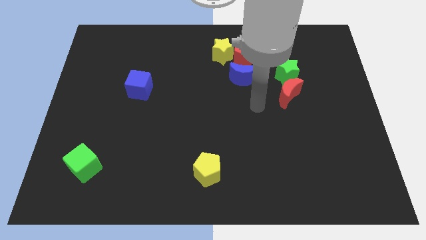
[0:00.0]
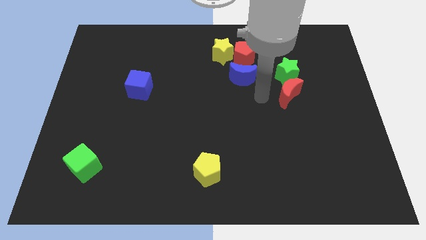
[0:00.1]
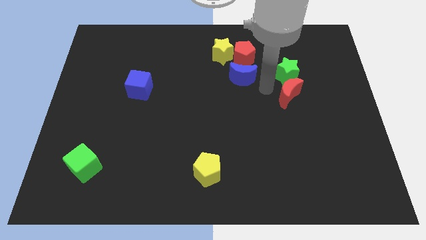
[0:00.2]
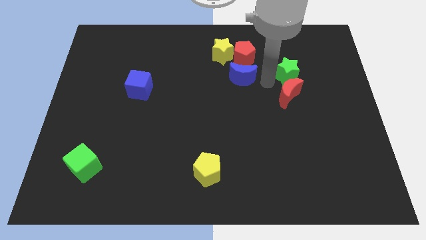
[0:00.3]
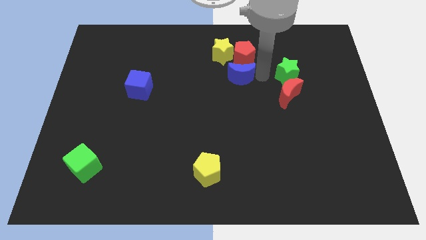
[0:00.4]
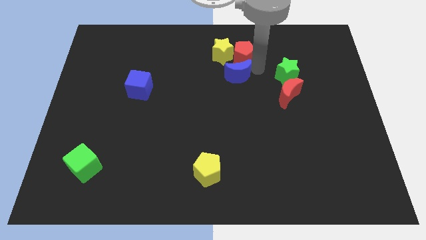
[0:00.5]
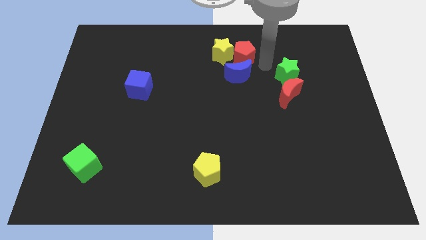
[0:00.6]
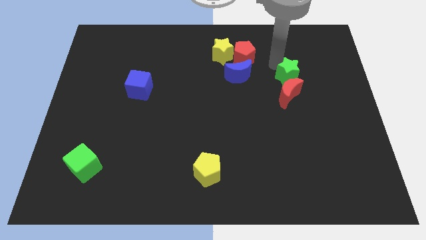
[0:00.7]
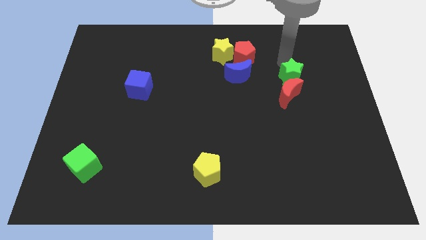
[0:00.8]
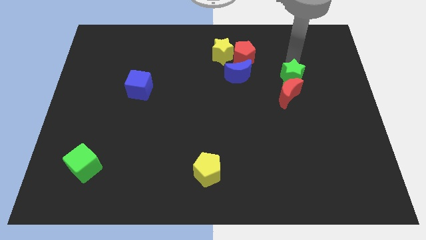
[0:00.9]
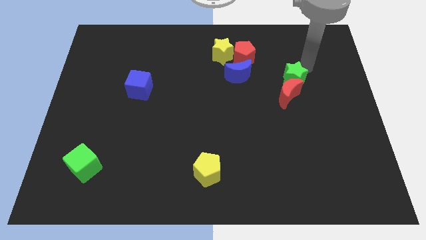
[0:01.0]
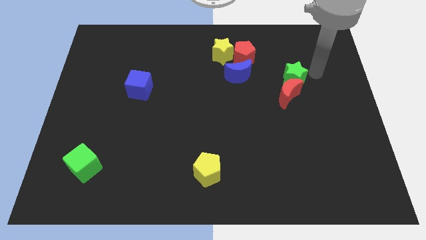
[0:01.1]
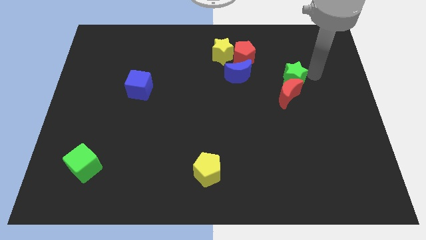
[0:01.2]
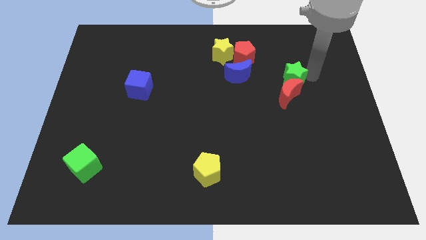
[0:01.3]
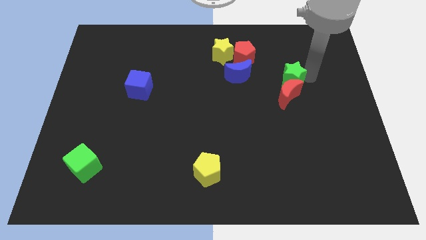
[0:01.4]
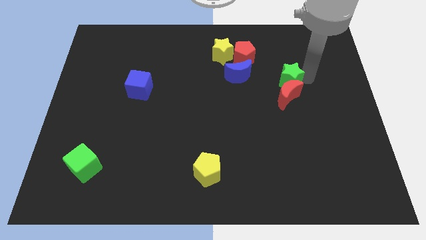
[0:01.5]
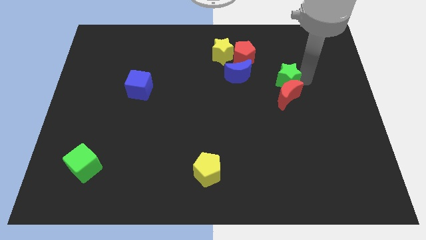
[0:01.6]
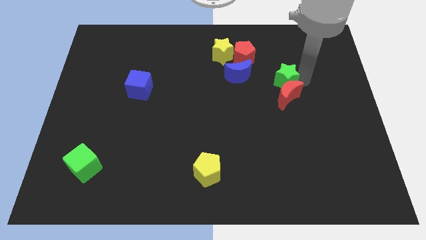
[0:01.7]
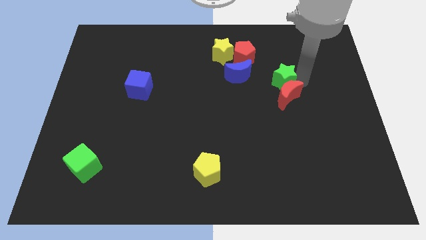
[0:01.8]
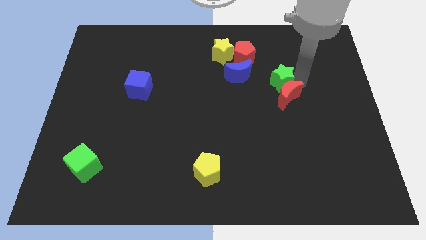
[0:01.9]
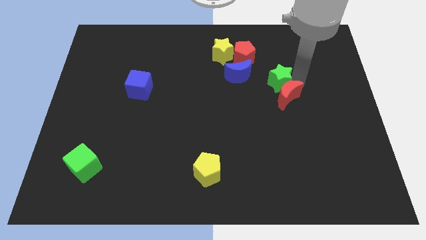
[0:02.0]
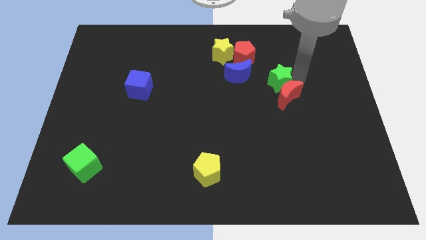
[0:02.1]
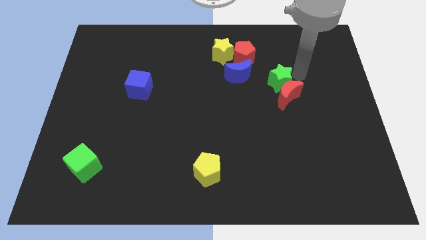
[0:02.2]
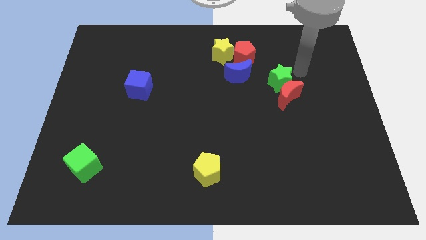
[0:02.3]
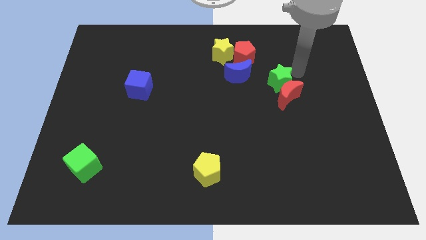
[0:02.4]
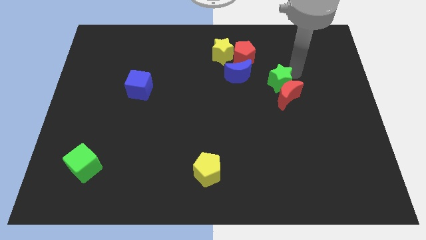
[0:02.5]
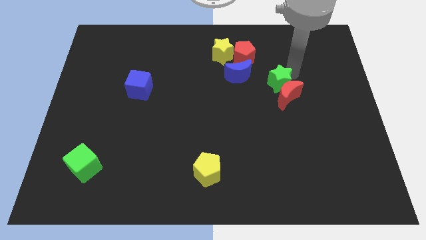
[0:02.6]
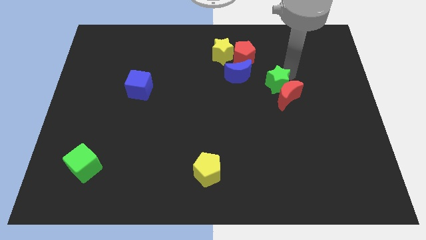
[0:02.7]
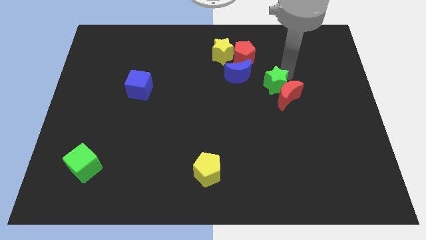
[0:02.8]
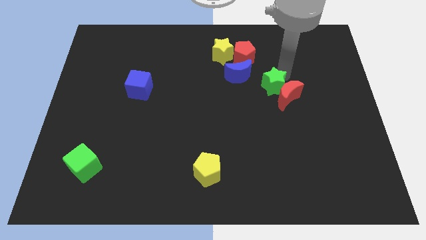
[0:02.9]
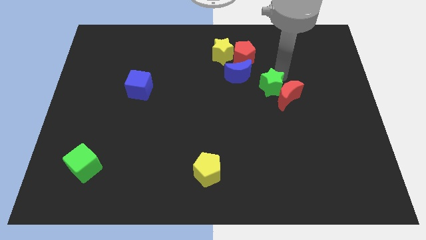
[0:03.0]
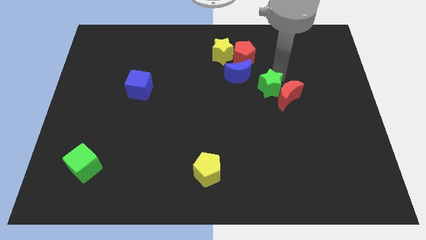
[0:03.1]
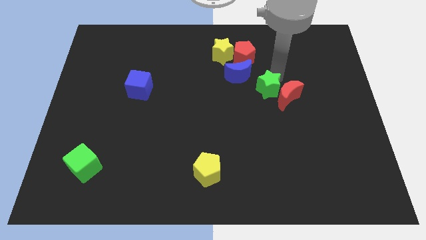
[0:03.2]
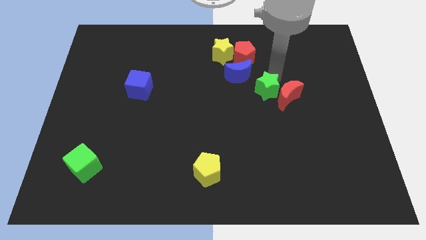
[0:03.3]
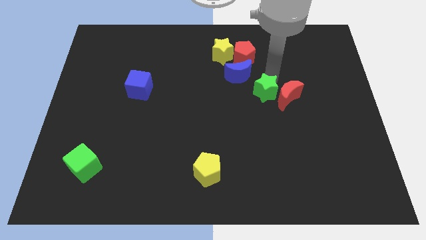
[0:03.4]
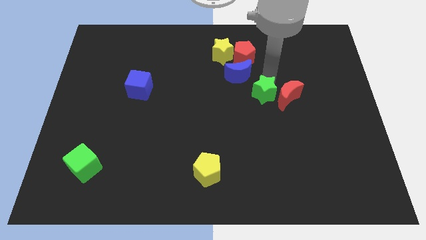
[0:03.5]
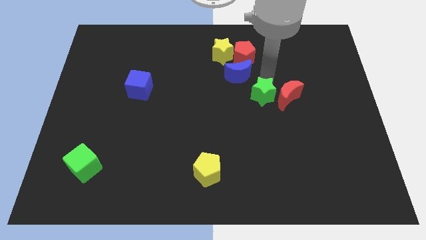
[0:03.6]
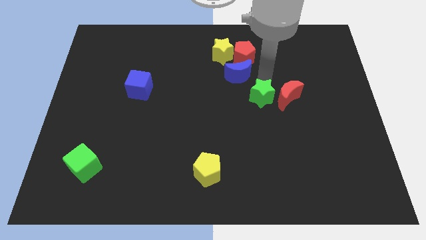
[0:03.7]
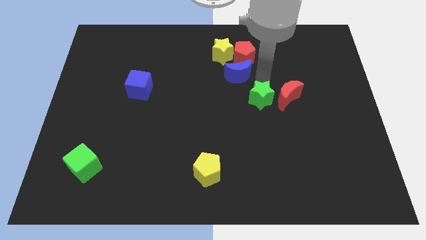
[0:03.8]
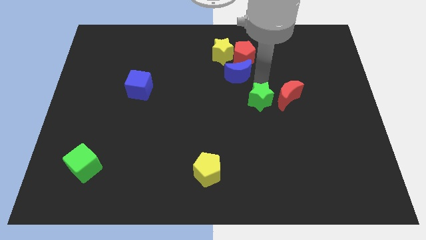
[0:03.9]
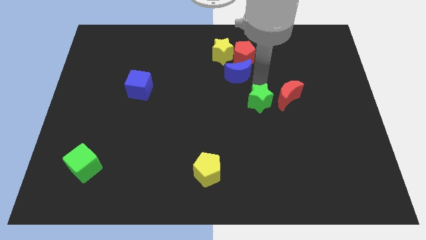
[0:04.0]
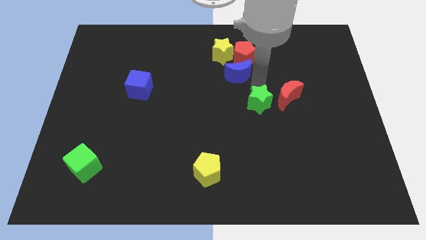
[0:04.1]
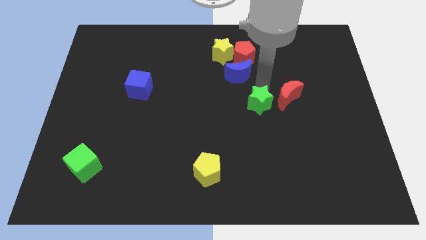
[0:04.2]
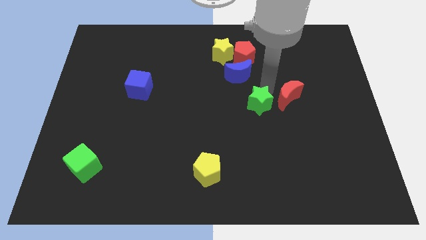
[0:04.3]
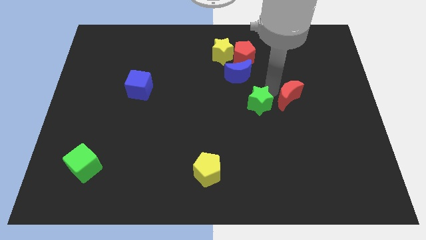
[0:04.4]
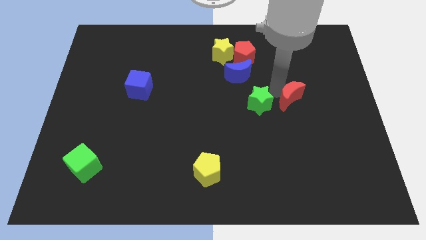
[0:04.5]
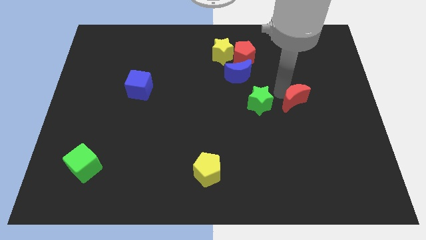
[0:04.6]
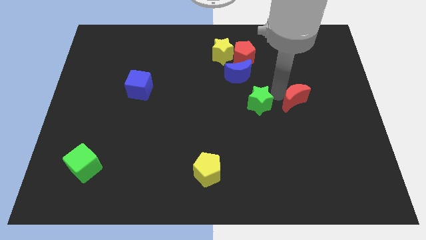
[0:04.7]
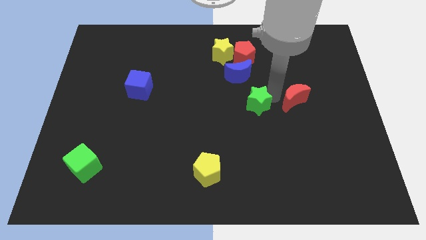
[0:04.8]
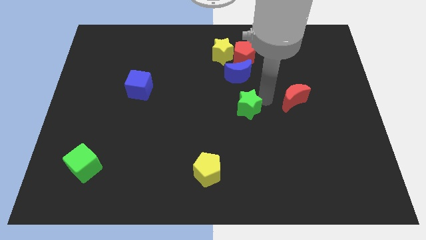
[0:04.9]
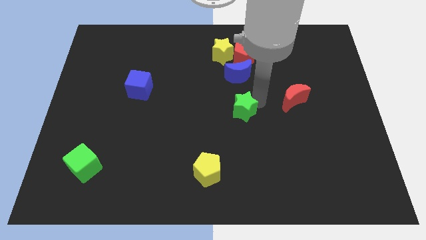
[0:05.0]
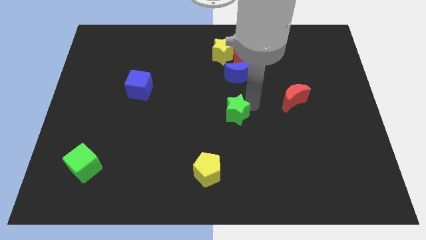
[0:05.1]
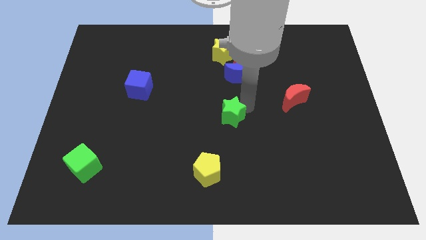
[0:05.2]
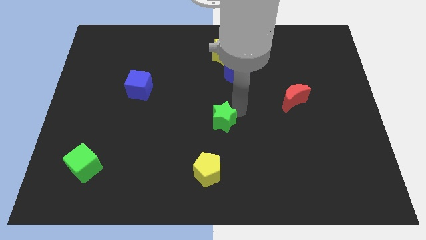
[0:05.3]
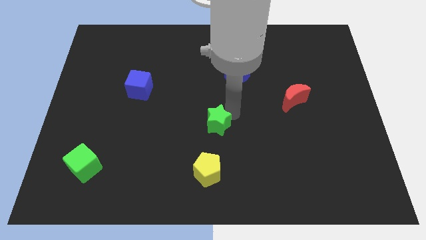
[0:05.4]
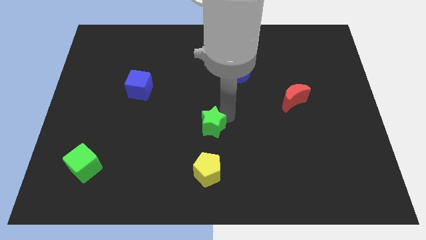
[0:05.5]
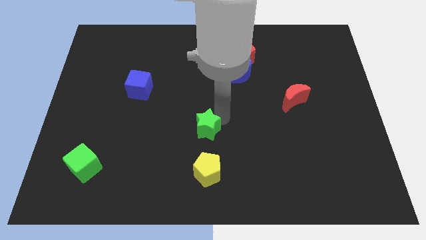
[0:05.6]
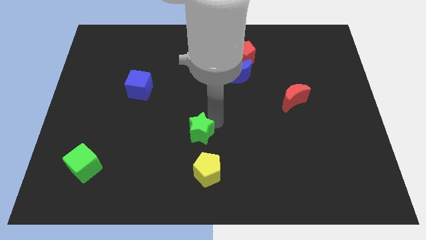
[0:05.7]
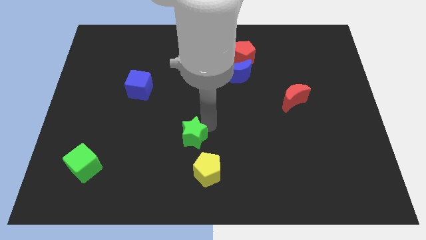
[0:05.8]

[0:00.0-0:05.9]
push the green star to the top left side of the yellow pentagon

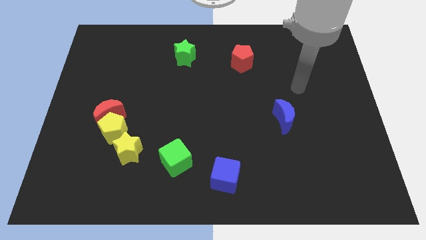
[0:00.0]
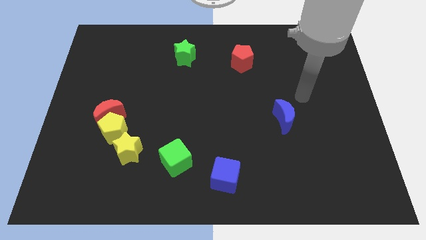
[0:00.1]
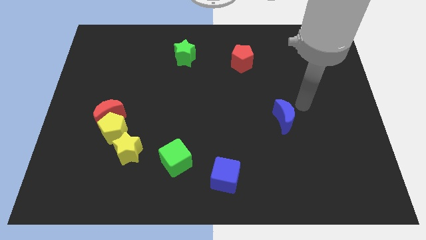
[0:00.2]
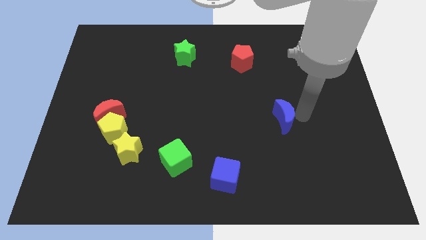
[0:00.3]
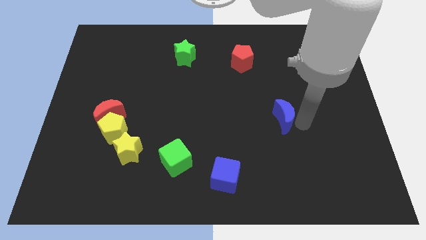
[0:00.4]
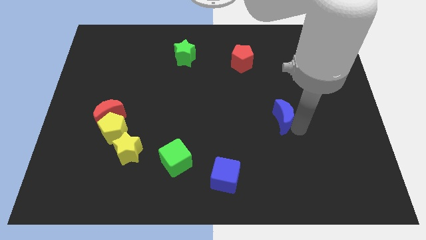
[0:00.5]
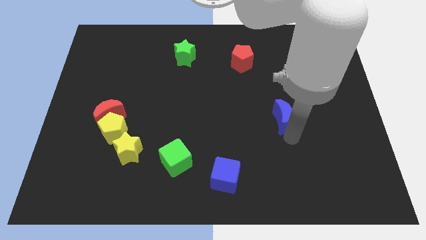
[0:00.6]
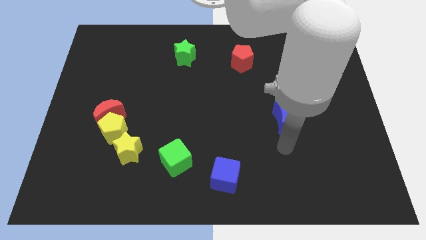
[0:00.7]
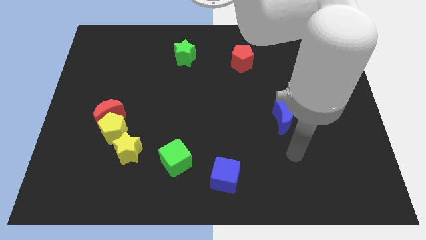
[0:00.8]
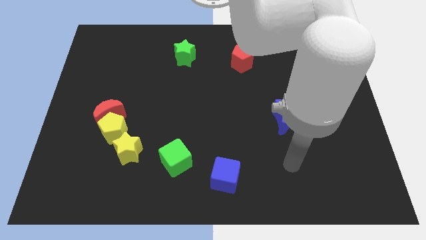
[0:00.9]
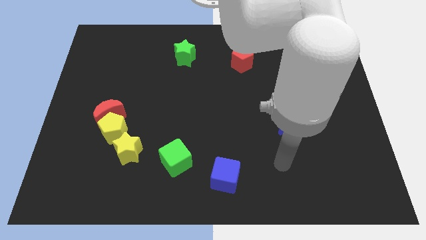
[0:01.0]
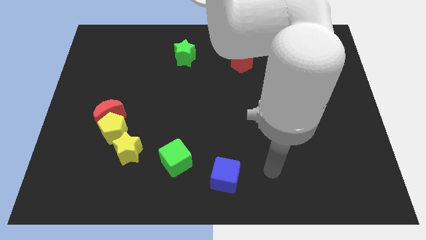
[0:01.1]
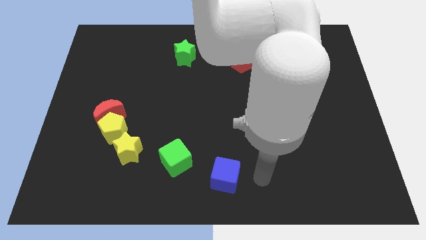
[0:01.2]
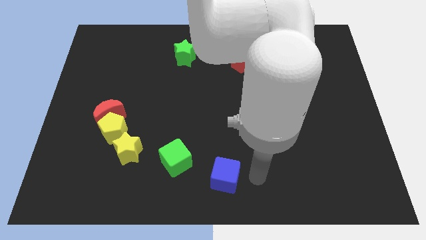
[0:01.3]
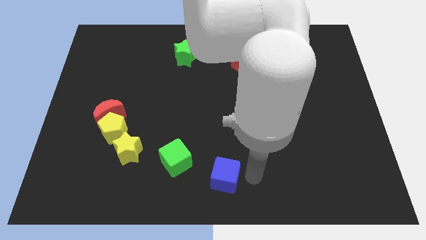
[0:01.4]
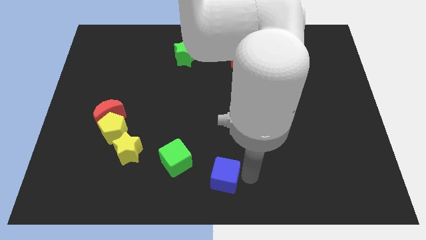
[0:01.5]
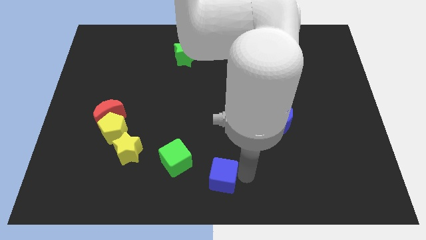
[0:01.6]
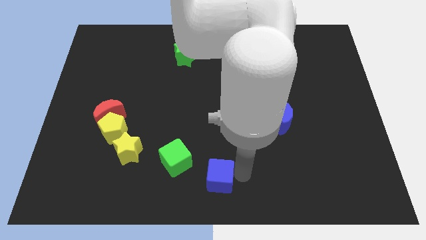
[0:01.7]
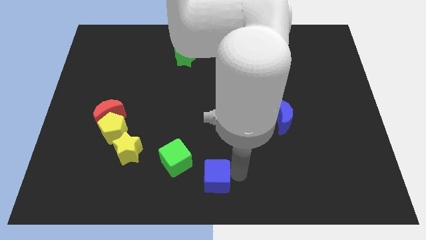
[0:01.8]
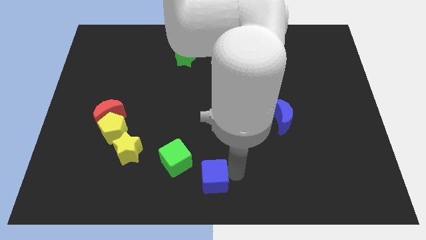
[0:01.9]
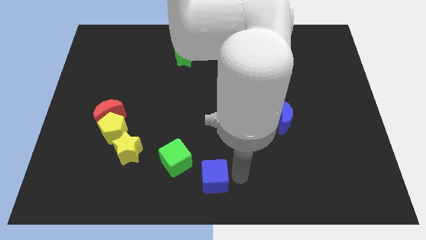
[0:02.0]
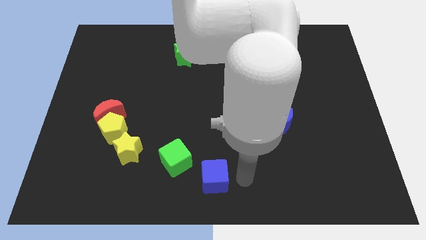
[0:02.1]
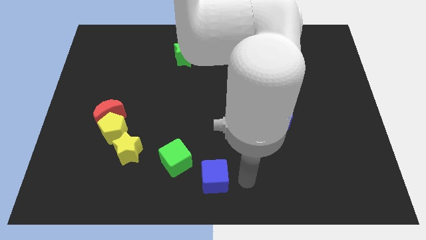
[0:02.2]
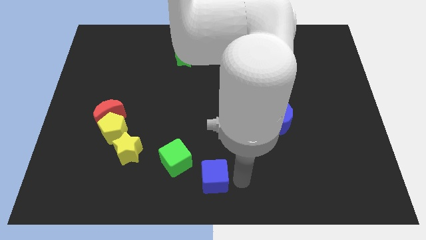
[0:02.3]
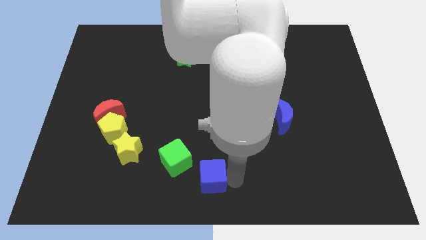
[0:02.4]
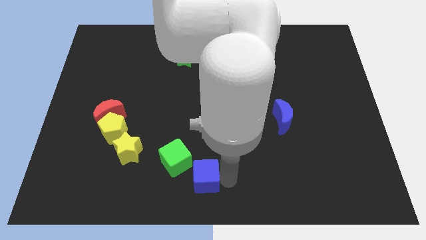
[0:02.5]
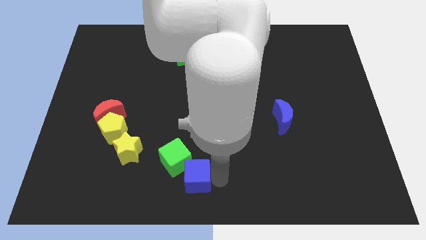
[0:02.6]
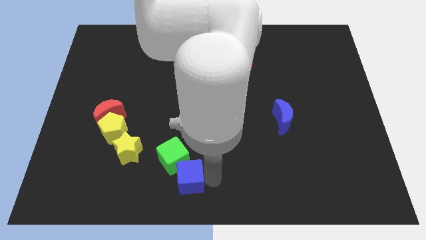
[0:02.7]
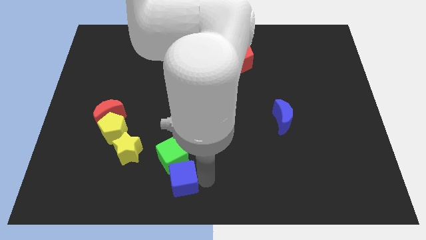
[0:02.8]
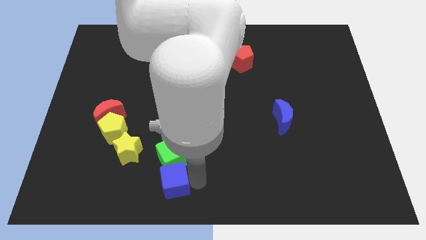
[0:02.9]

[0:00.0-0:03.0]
move the blue cube to the bottom right of the yellow star
